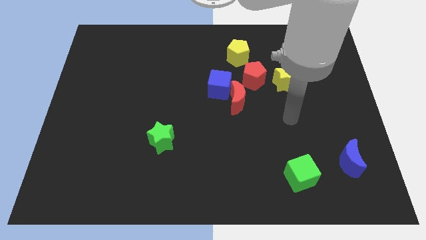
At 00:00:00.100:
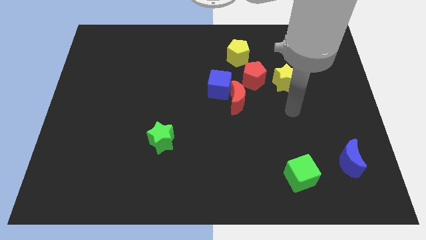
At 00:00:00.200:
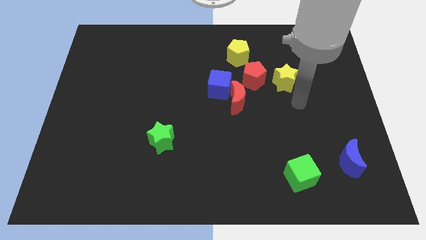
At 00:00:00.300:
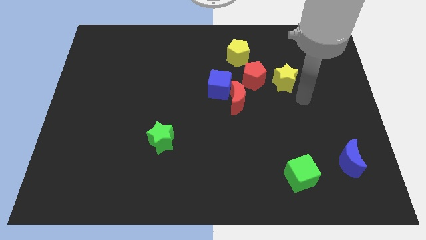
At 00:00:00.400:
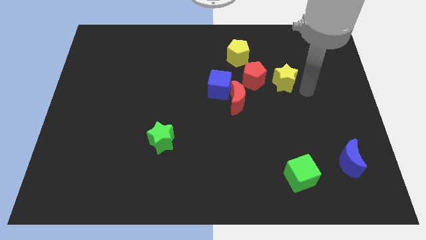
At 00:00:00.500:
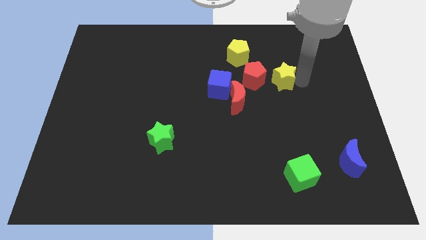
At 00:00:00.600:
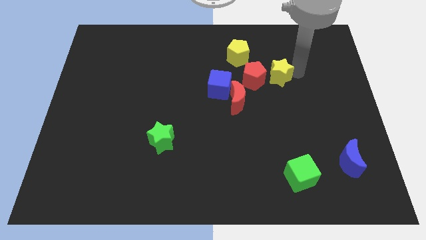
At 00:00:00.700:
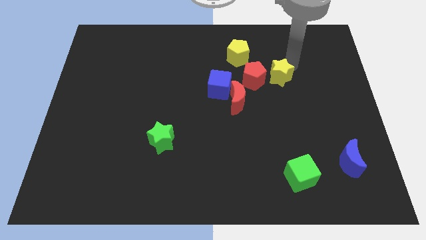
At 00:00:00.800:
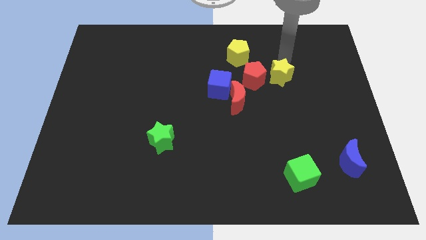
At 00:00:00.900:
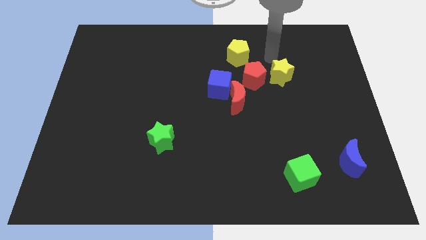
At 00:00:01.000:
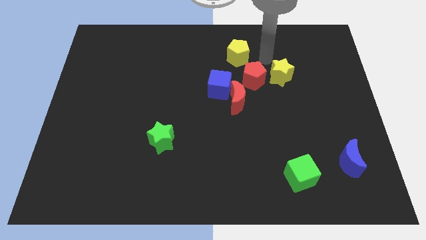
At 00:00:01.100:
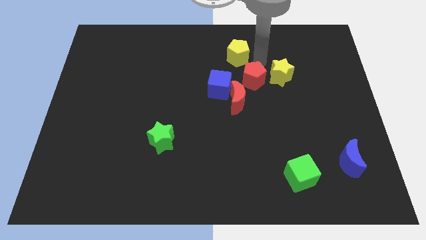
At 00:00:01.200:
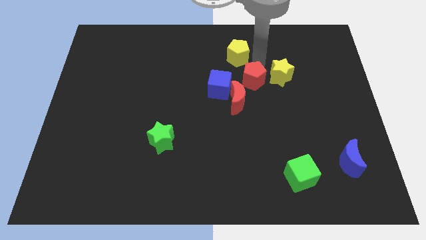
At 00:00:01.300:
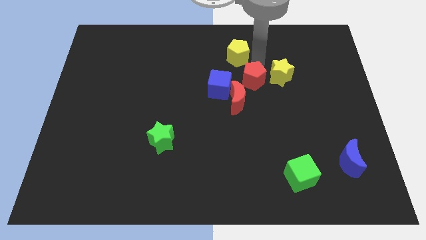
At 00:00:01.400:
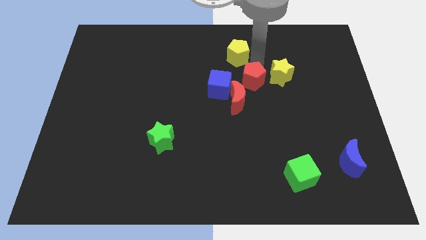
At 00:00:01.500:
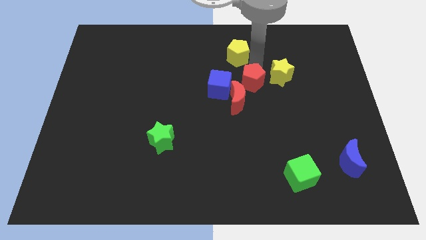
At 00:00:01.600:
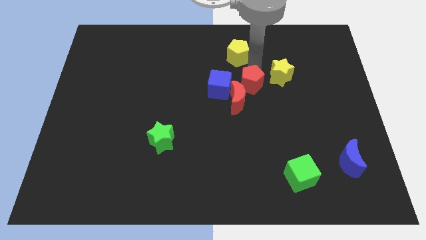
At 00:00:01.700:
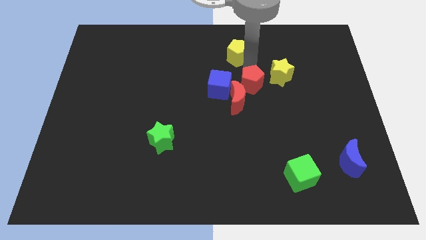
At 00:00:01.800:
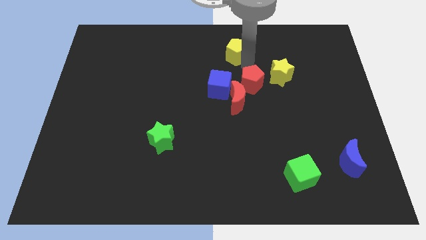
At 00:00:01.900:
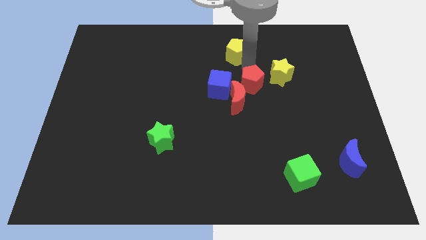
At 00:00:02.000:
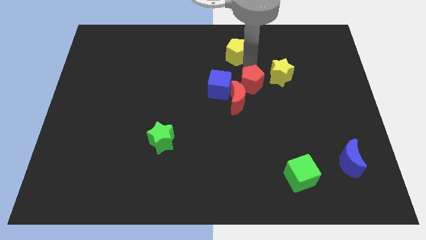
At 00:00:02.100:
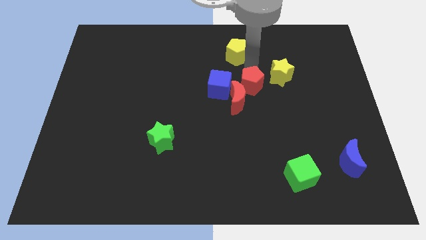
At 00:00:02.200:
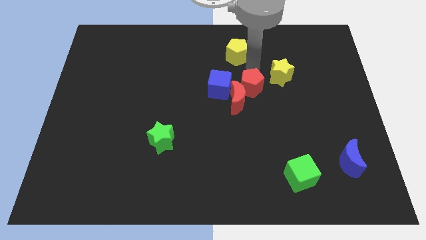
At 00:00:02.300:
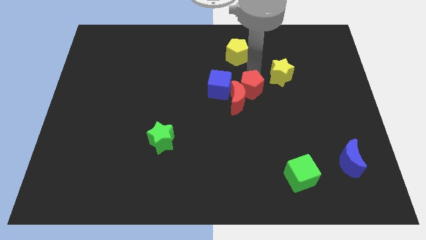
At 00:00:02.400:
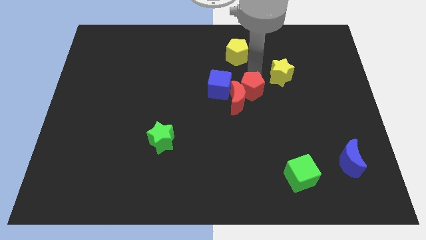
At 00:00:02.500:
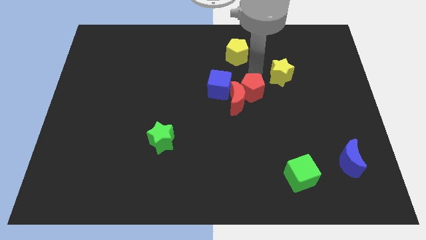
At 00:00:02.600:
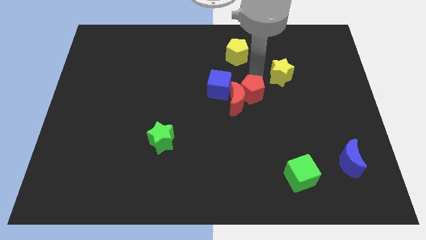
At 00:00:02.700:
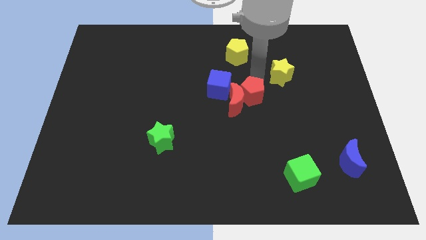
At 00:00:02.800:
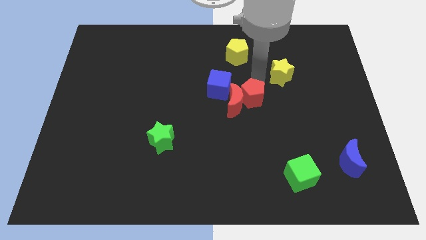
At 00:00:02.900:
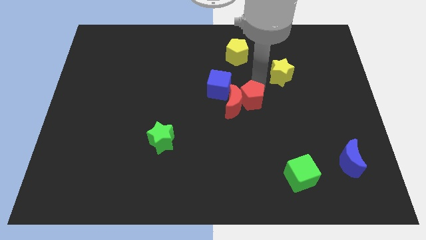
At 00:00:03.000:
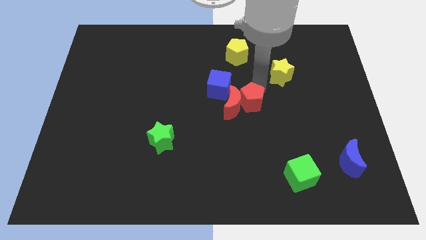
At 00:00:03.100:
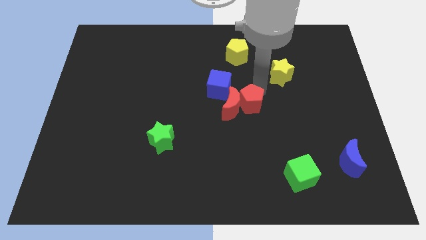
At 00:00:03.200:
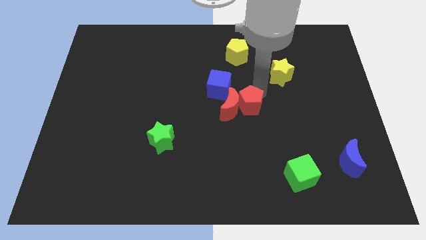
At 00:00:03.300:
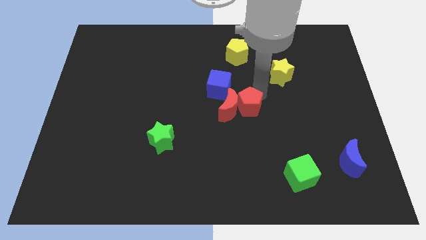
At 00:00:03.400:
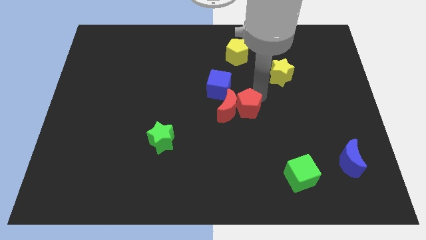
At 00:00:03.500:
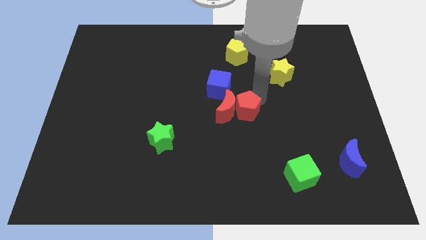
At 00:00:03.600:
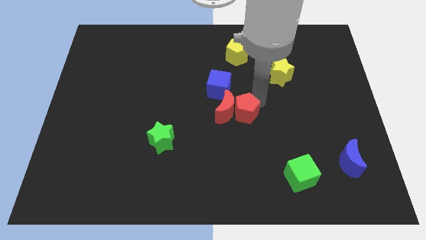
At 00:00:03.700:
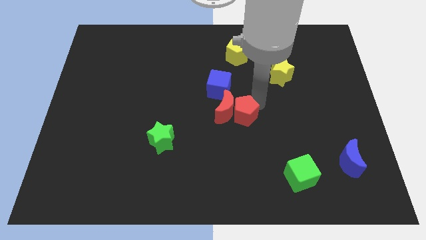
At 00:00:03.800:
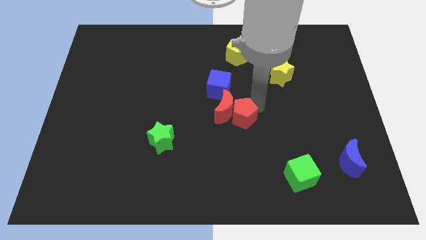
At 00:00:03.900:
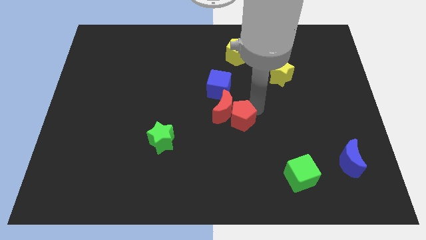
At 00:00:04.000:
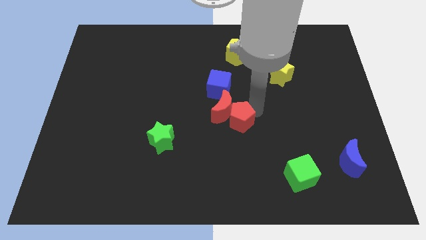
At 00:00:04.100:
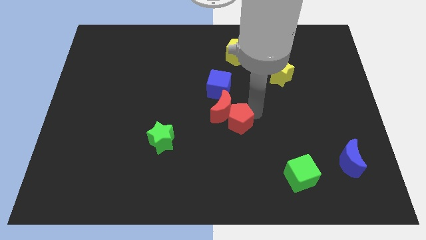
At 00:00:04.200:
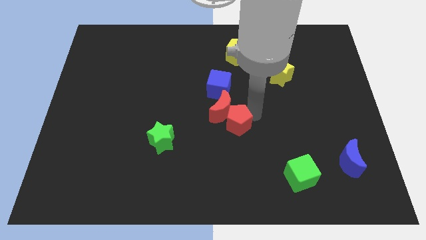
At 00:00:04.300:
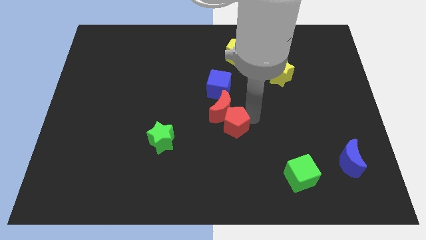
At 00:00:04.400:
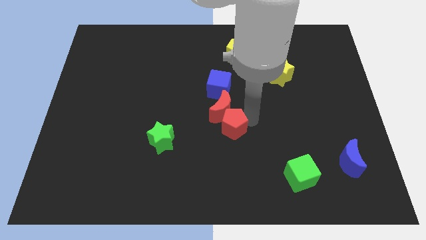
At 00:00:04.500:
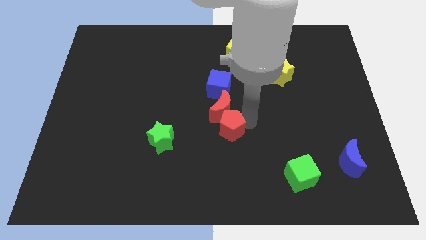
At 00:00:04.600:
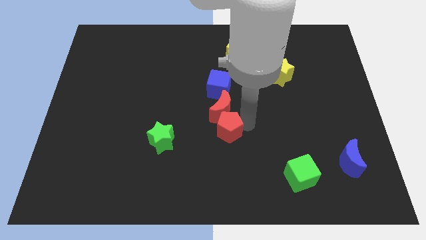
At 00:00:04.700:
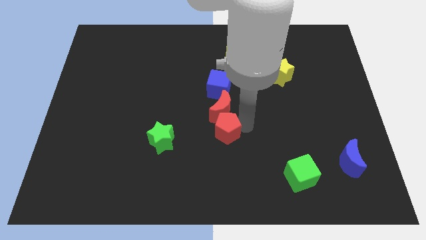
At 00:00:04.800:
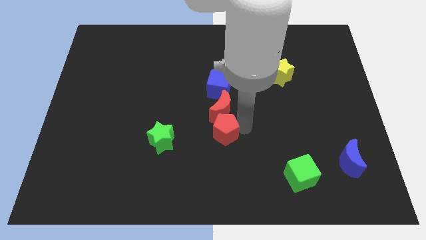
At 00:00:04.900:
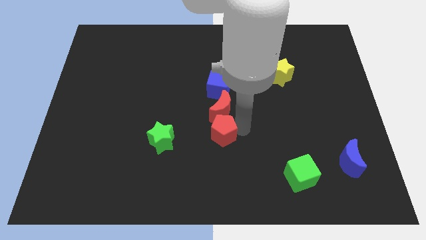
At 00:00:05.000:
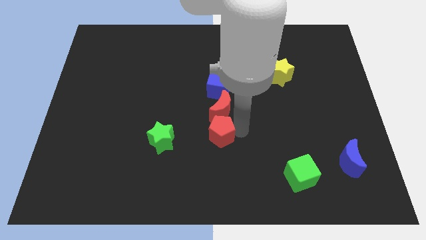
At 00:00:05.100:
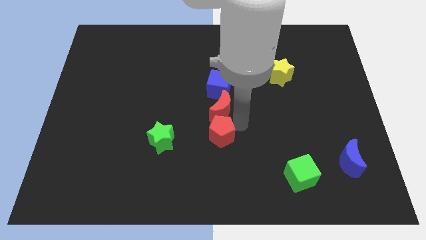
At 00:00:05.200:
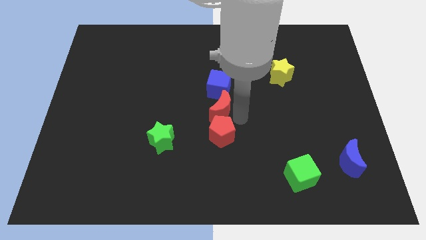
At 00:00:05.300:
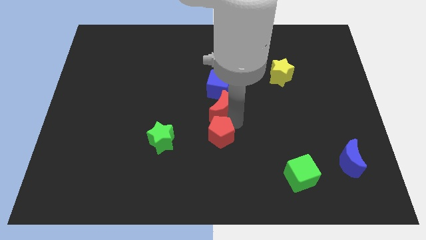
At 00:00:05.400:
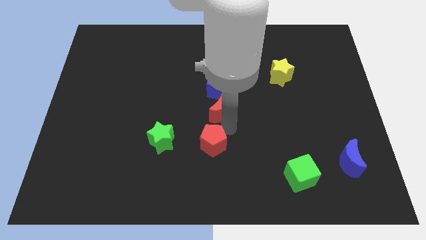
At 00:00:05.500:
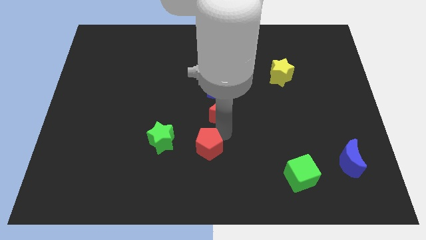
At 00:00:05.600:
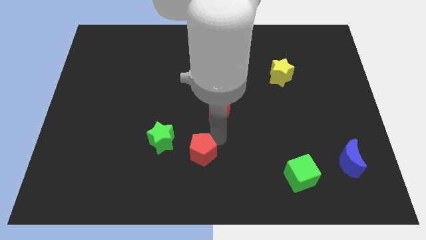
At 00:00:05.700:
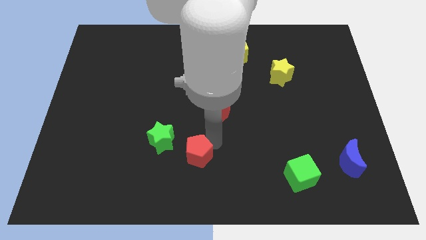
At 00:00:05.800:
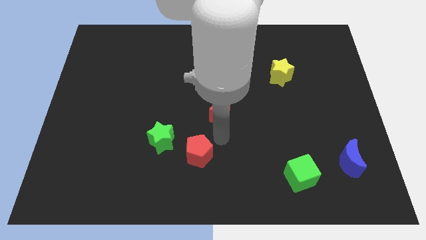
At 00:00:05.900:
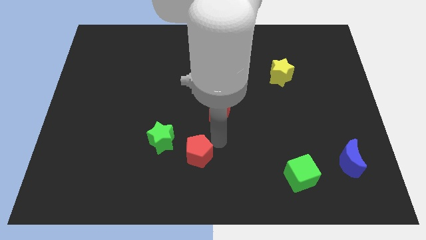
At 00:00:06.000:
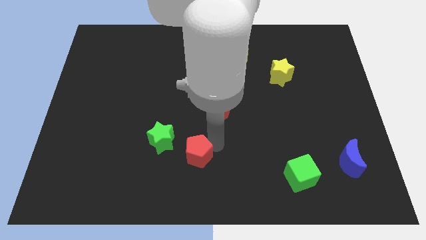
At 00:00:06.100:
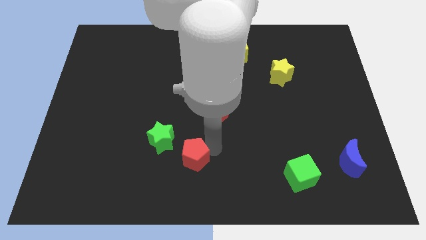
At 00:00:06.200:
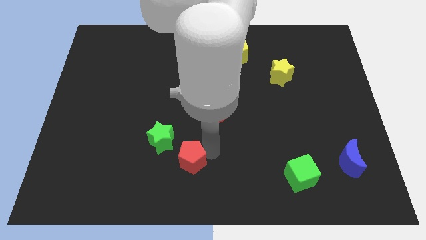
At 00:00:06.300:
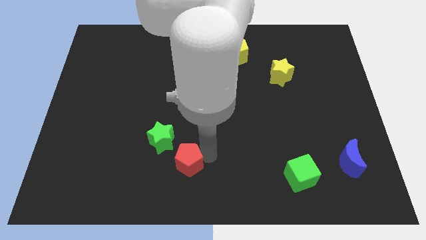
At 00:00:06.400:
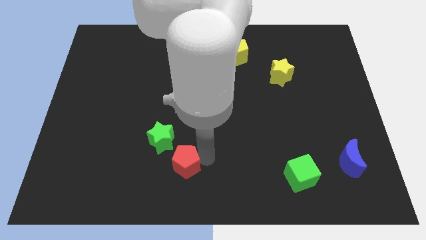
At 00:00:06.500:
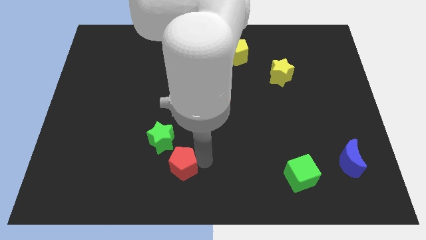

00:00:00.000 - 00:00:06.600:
put the red pentagon to the bottom side of the green star
